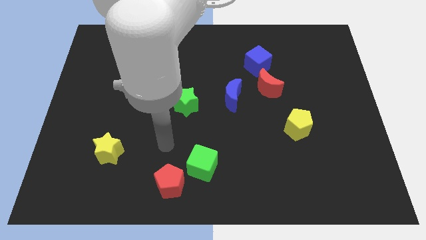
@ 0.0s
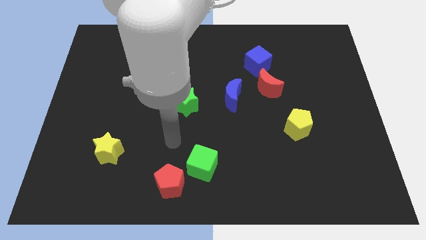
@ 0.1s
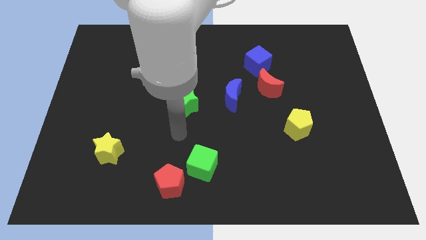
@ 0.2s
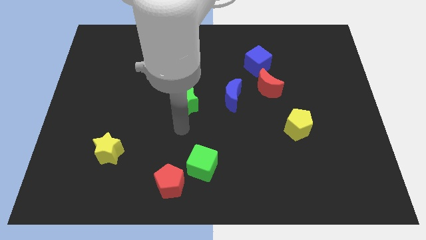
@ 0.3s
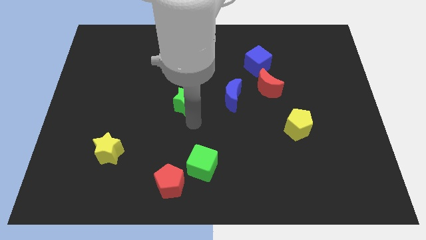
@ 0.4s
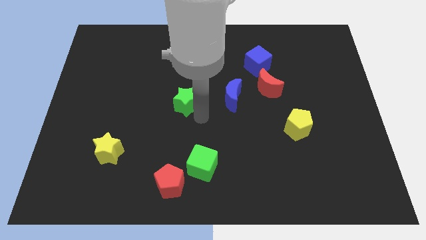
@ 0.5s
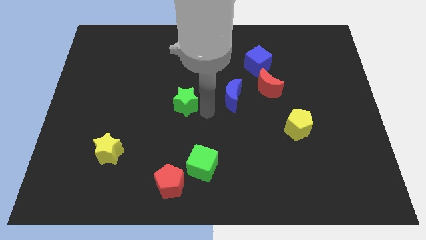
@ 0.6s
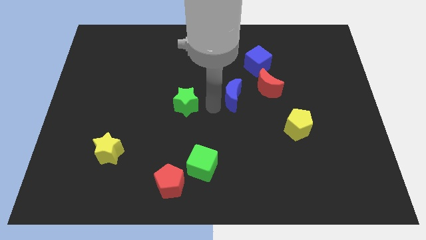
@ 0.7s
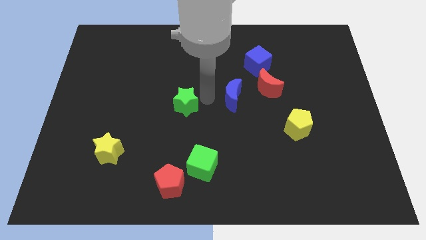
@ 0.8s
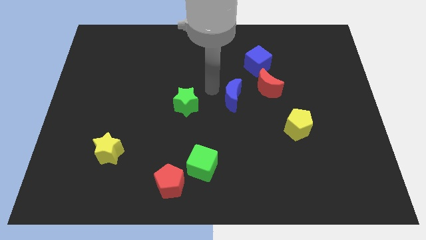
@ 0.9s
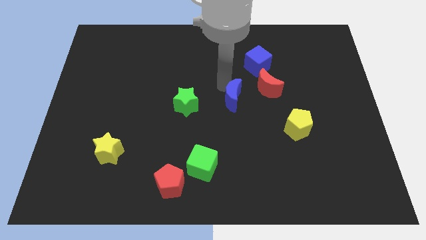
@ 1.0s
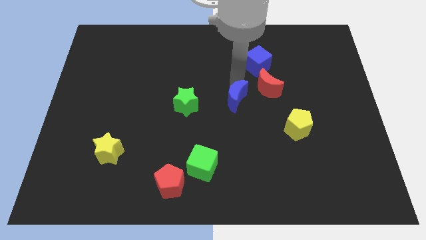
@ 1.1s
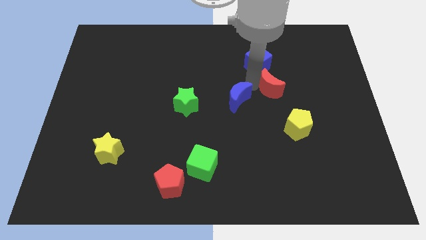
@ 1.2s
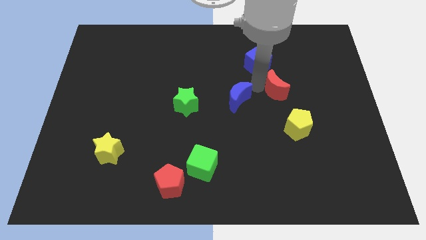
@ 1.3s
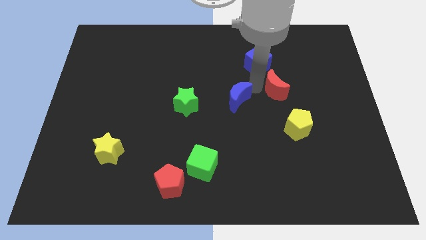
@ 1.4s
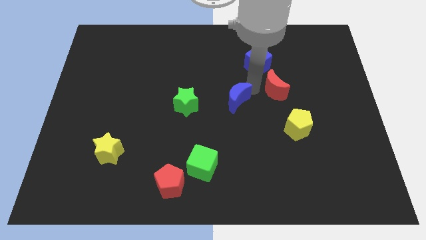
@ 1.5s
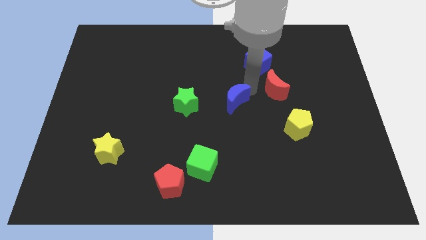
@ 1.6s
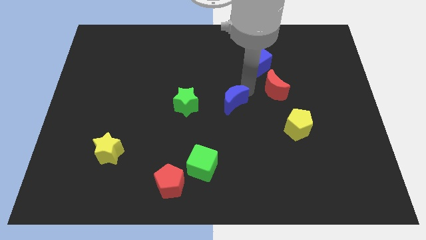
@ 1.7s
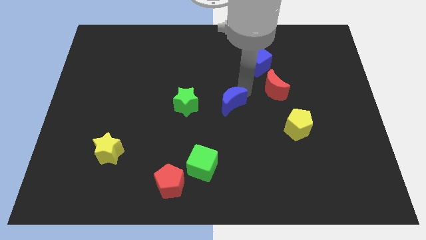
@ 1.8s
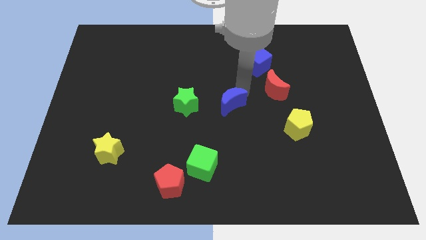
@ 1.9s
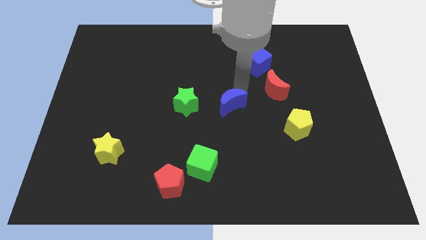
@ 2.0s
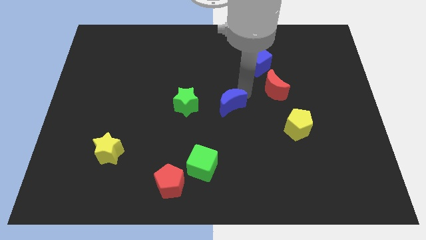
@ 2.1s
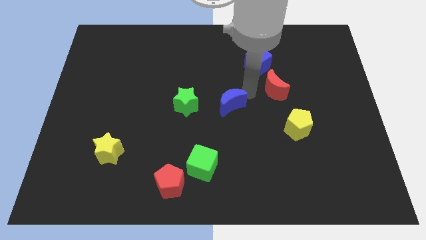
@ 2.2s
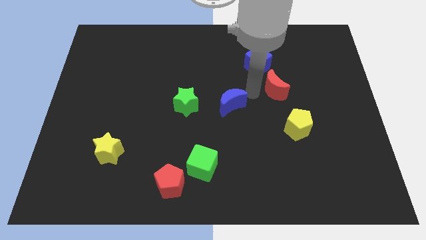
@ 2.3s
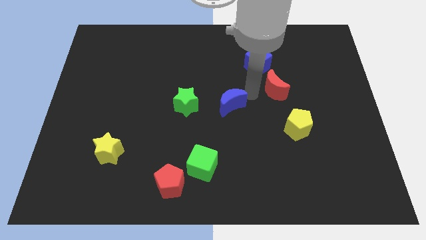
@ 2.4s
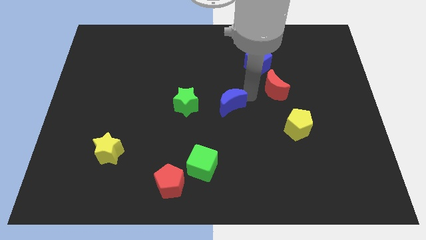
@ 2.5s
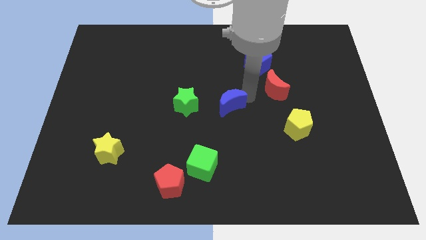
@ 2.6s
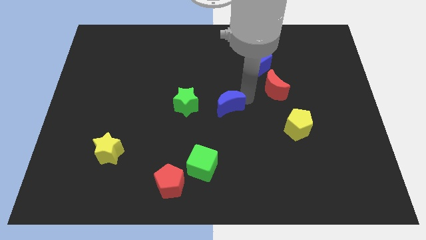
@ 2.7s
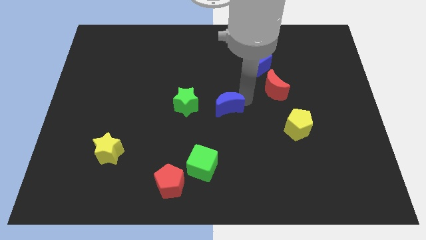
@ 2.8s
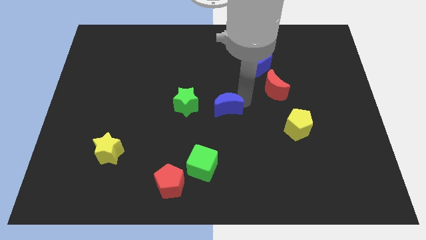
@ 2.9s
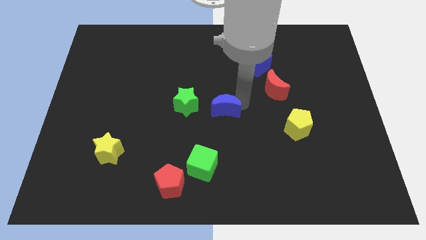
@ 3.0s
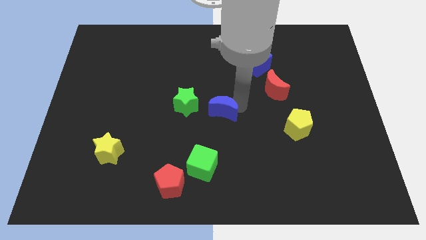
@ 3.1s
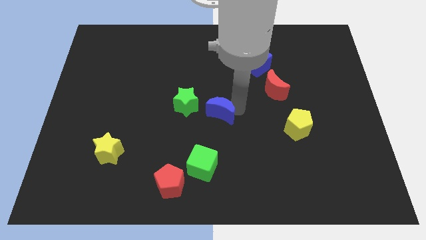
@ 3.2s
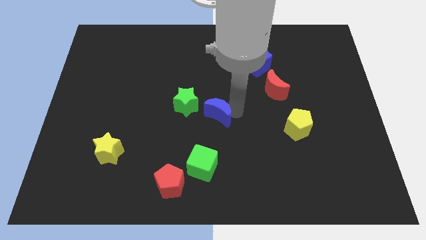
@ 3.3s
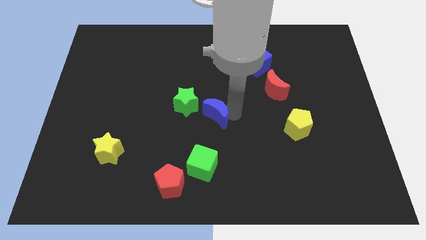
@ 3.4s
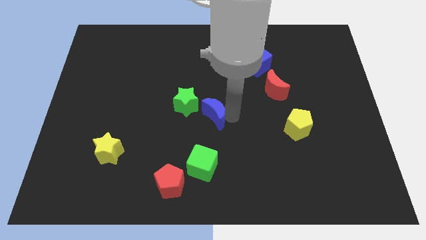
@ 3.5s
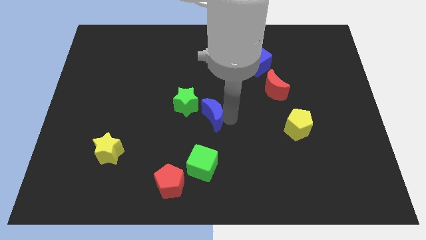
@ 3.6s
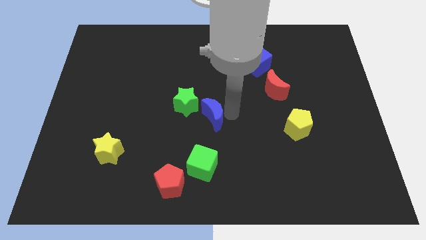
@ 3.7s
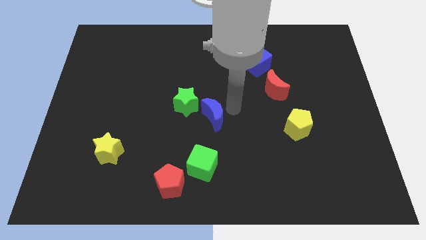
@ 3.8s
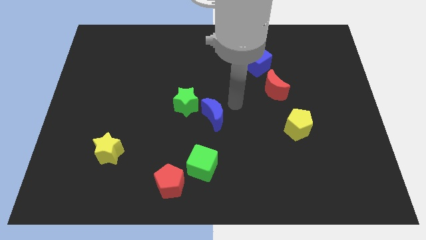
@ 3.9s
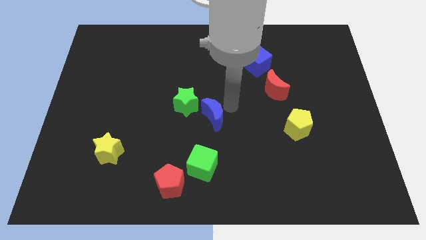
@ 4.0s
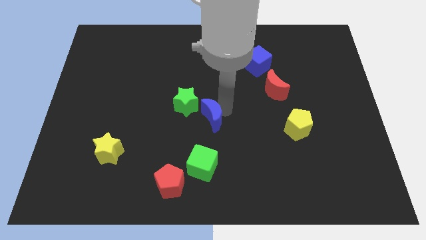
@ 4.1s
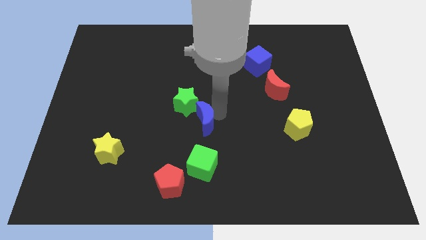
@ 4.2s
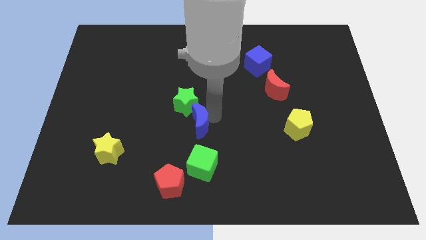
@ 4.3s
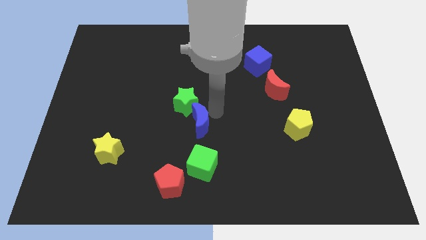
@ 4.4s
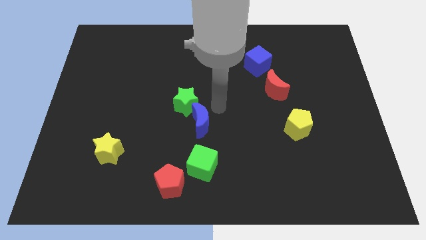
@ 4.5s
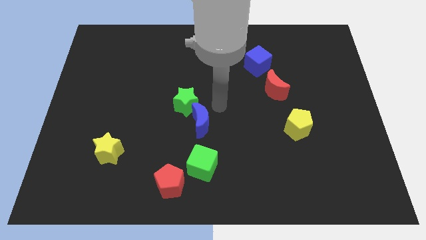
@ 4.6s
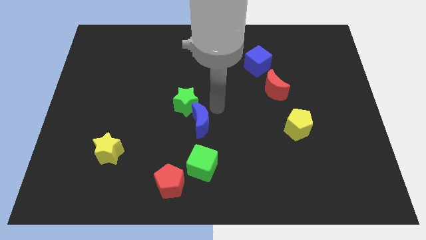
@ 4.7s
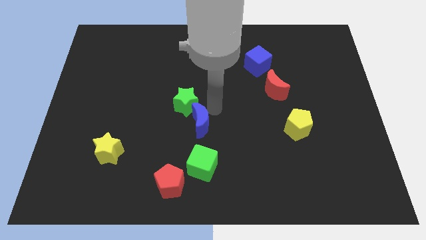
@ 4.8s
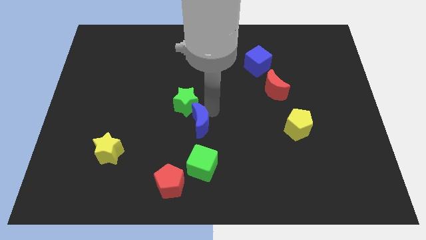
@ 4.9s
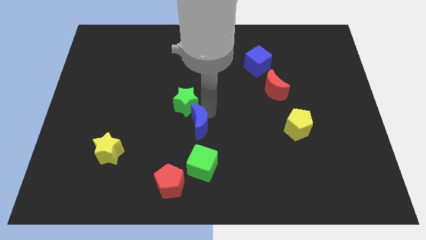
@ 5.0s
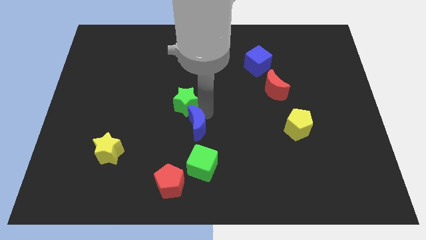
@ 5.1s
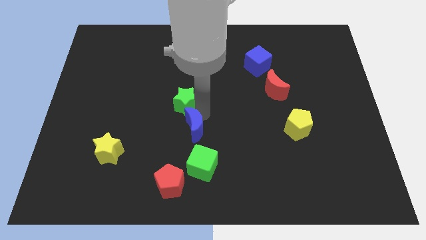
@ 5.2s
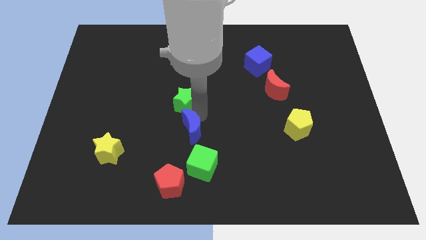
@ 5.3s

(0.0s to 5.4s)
move the blue moon to the top left of the green cube

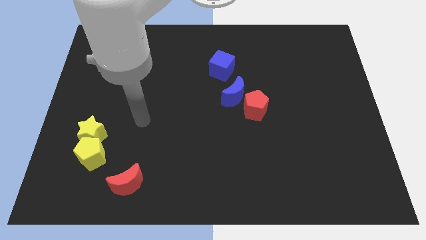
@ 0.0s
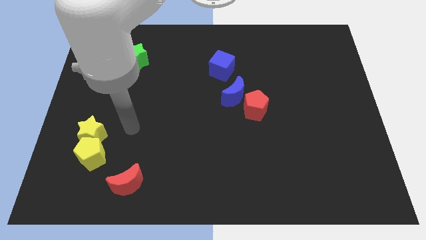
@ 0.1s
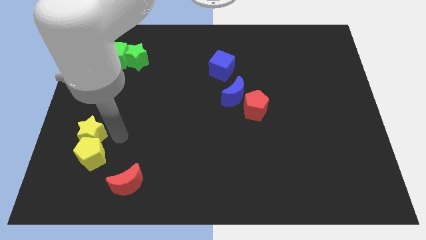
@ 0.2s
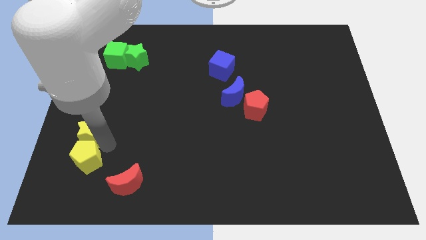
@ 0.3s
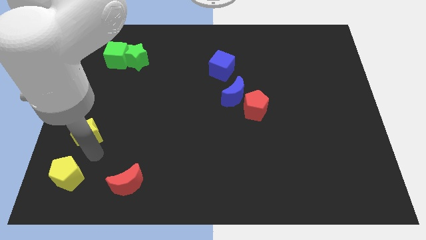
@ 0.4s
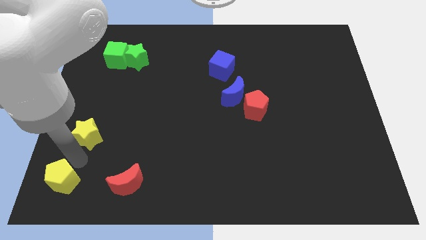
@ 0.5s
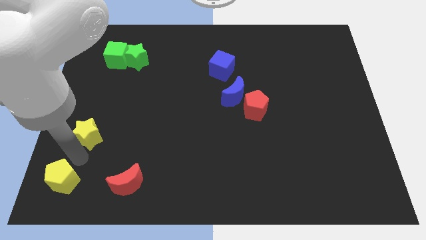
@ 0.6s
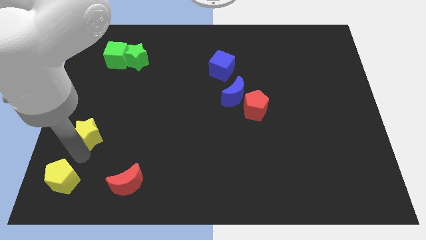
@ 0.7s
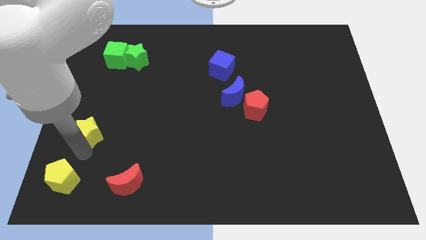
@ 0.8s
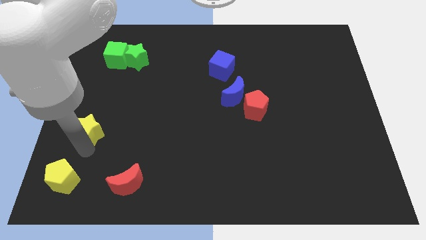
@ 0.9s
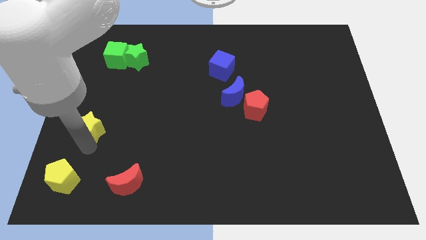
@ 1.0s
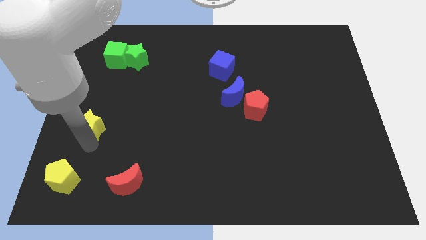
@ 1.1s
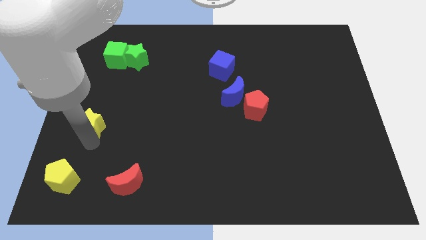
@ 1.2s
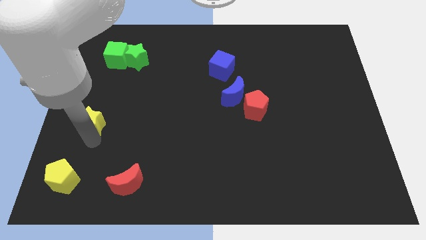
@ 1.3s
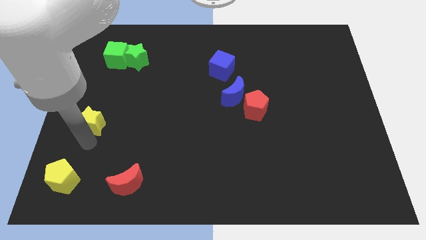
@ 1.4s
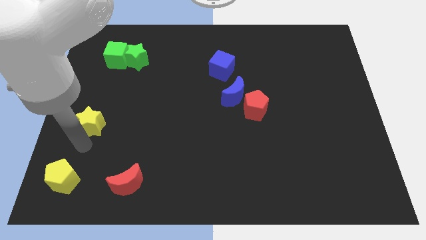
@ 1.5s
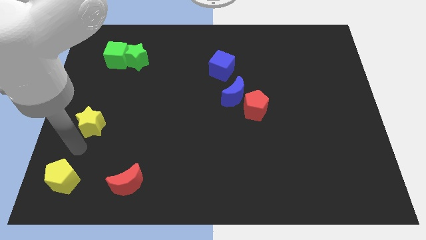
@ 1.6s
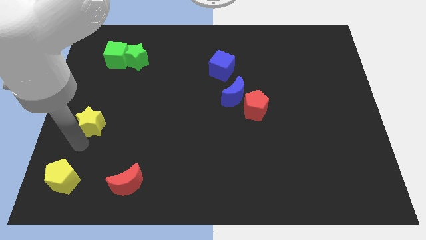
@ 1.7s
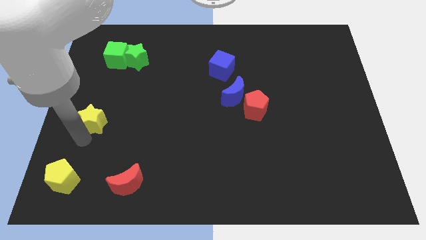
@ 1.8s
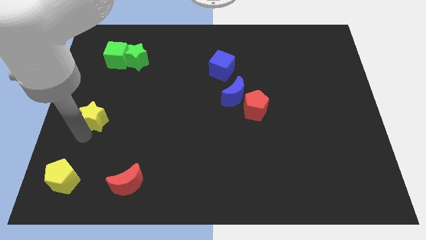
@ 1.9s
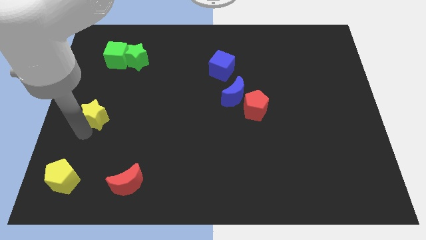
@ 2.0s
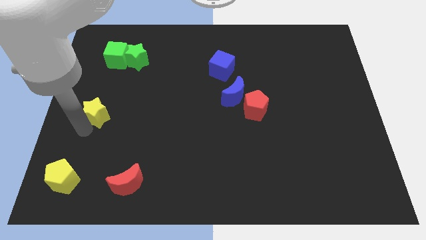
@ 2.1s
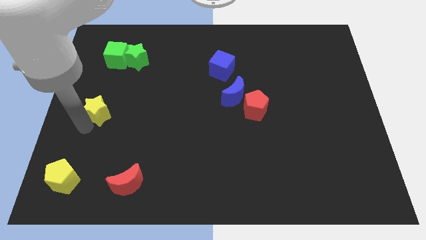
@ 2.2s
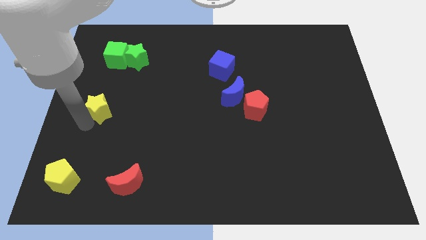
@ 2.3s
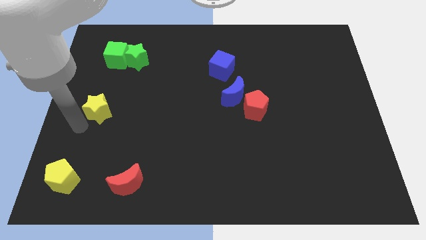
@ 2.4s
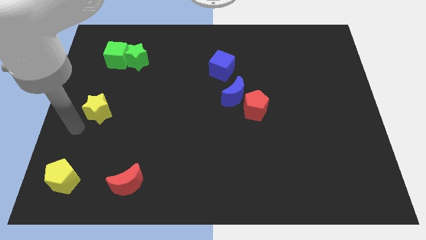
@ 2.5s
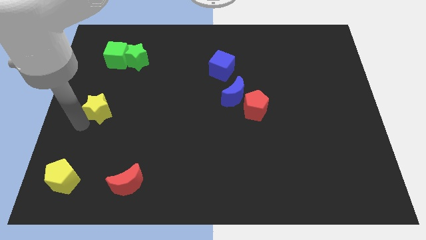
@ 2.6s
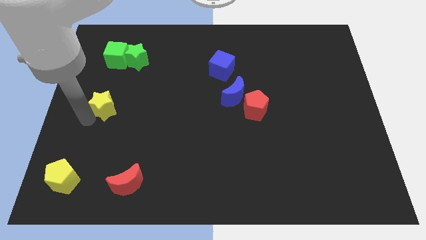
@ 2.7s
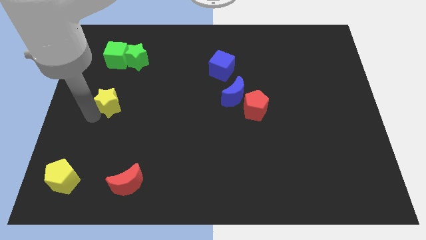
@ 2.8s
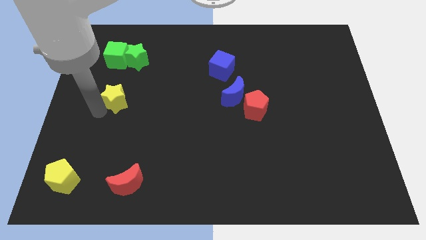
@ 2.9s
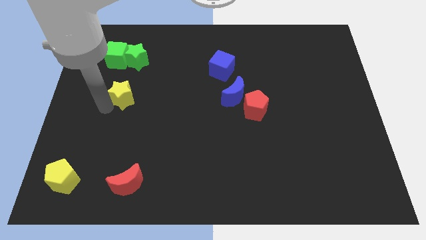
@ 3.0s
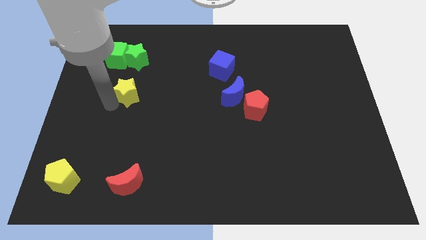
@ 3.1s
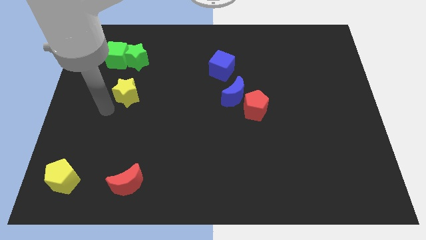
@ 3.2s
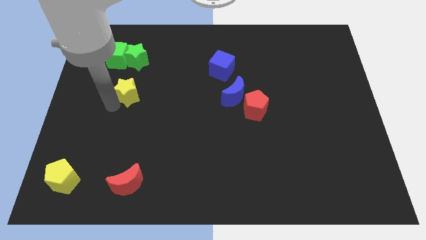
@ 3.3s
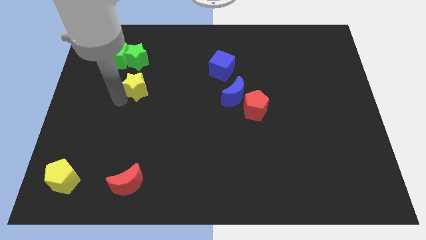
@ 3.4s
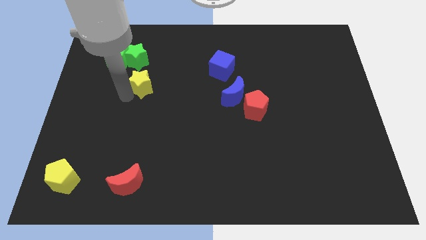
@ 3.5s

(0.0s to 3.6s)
move the yellow star to the bottom right of the green star
